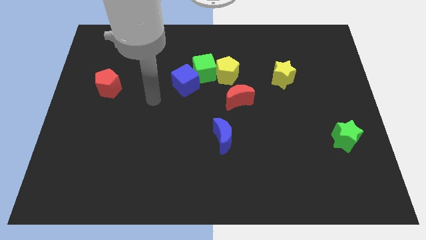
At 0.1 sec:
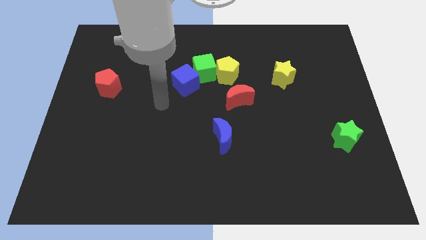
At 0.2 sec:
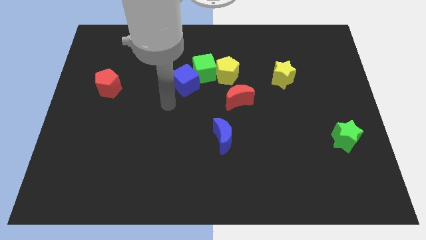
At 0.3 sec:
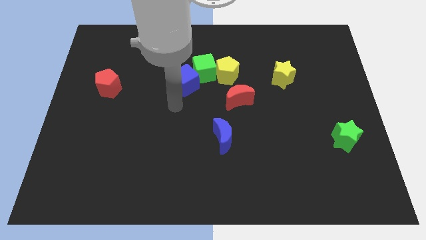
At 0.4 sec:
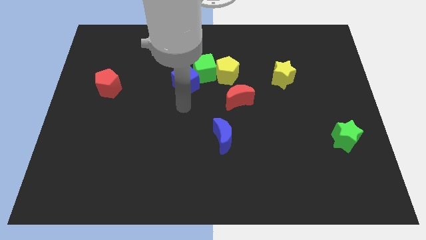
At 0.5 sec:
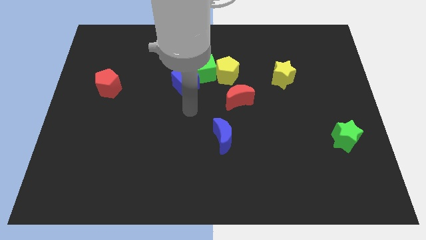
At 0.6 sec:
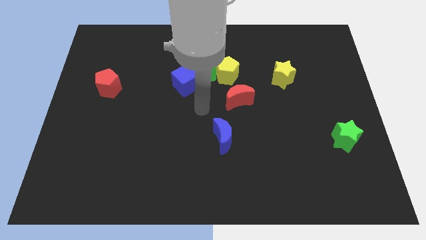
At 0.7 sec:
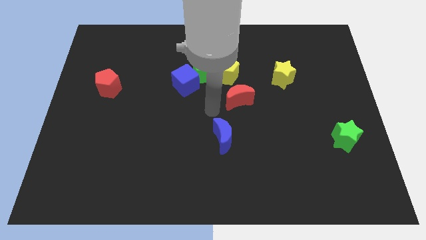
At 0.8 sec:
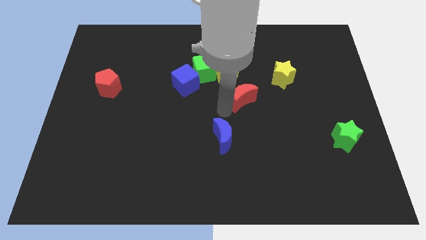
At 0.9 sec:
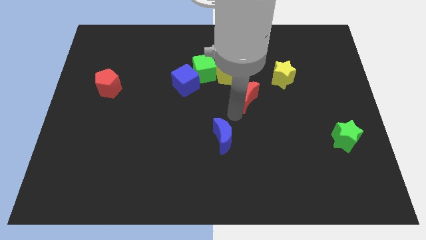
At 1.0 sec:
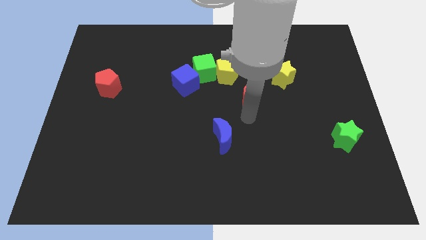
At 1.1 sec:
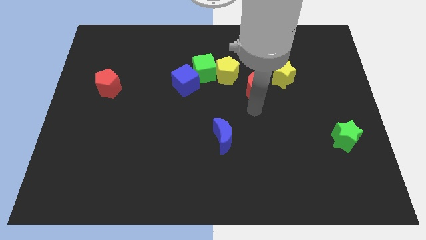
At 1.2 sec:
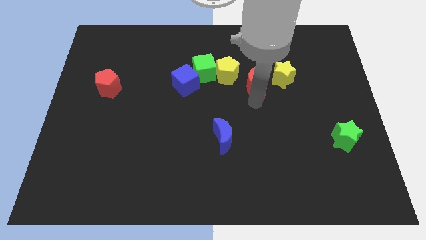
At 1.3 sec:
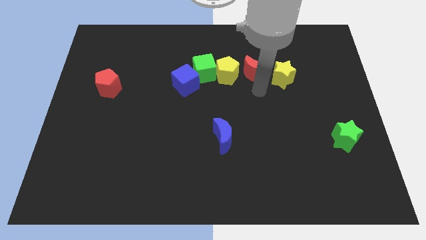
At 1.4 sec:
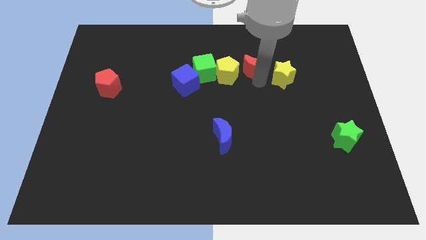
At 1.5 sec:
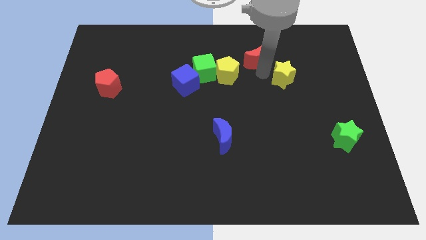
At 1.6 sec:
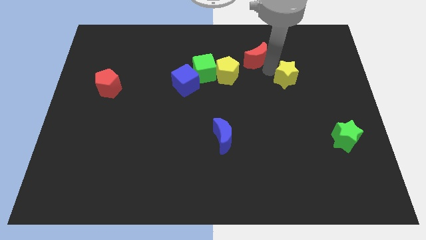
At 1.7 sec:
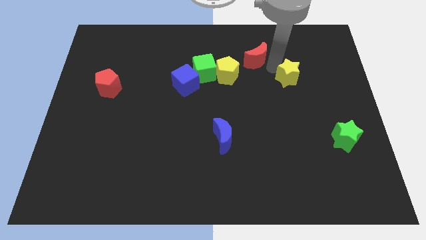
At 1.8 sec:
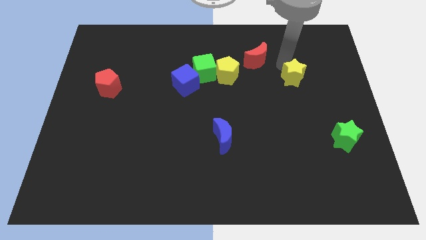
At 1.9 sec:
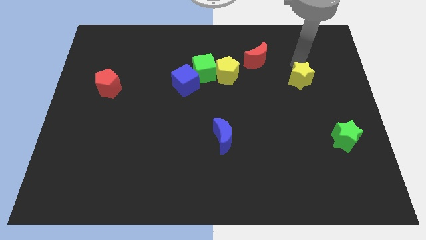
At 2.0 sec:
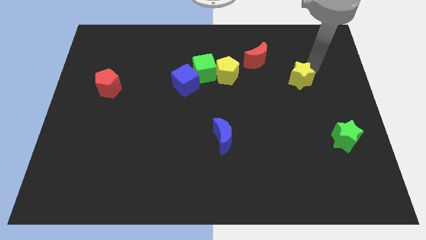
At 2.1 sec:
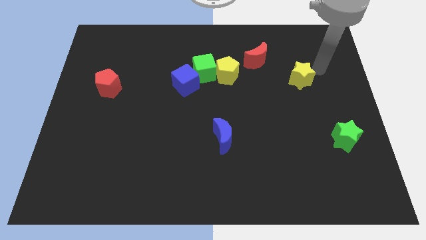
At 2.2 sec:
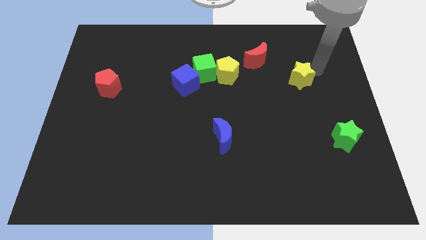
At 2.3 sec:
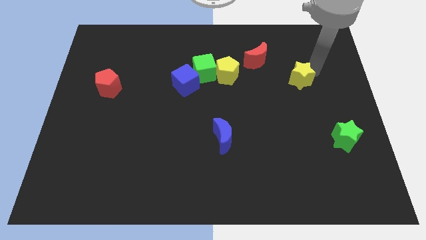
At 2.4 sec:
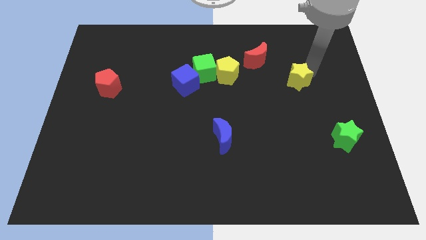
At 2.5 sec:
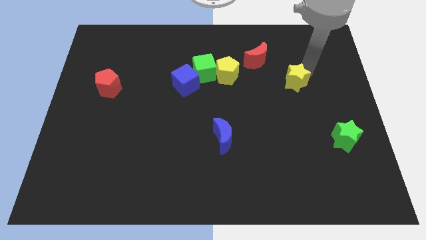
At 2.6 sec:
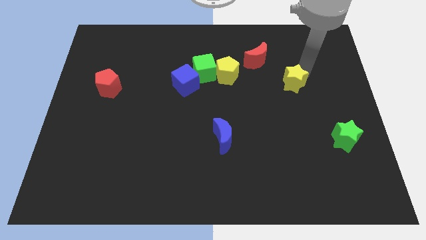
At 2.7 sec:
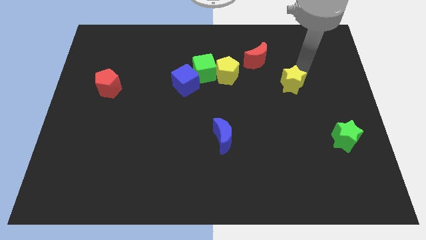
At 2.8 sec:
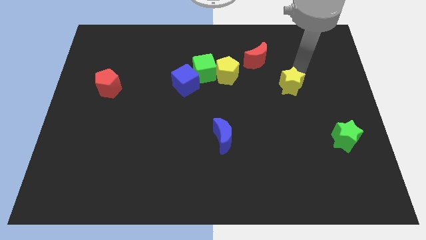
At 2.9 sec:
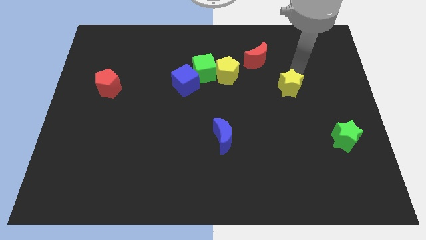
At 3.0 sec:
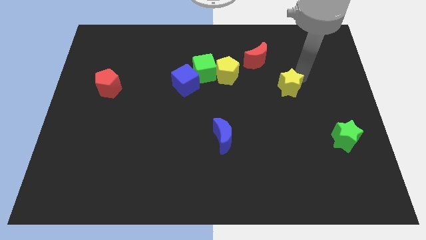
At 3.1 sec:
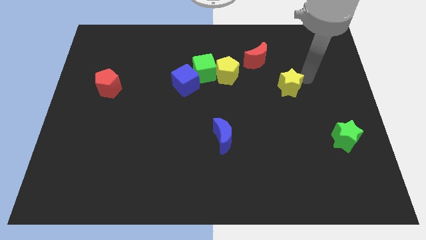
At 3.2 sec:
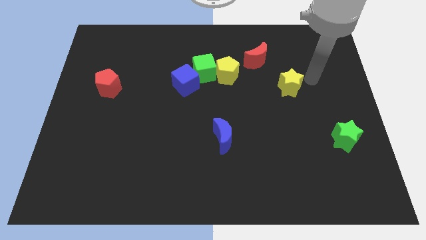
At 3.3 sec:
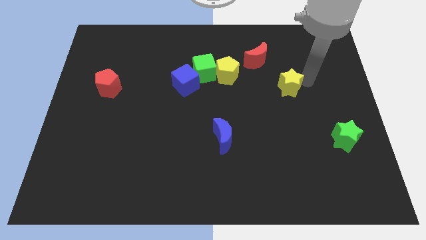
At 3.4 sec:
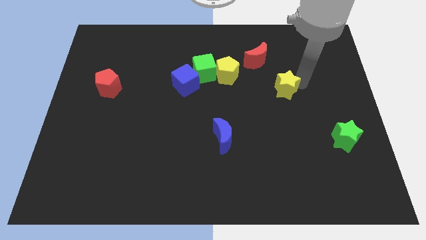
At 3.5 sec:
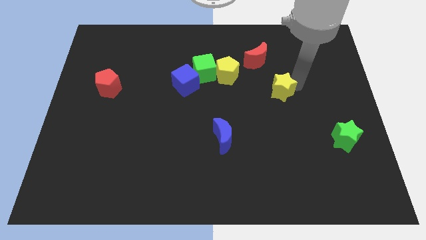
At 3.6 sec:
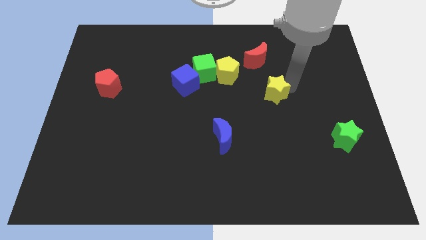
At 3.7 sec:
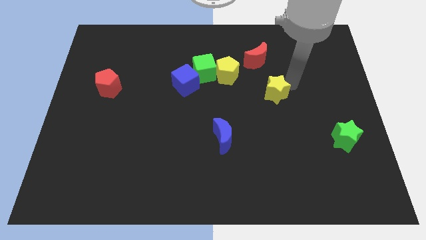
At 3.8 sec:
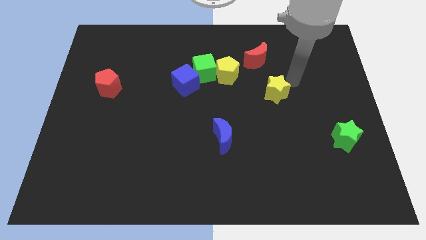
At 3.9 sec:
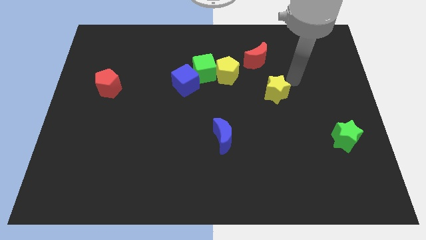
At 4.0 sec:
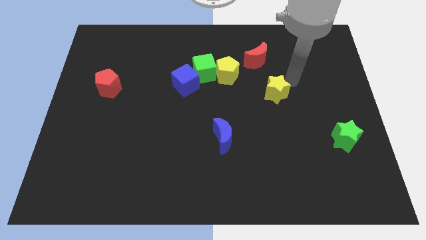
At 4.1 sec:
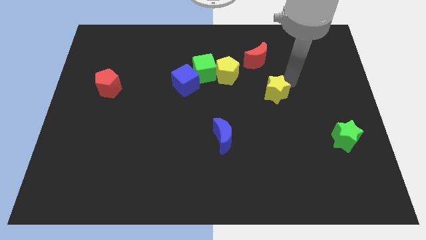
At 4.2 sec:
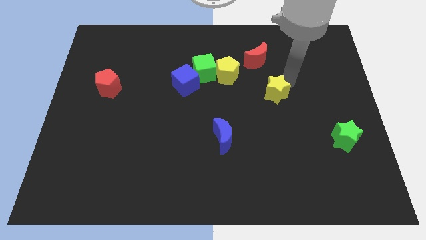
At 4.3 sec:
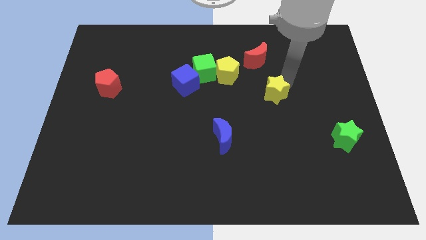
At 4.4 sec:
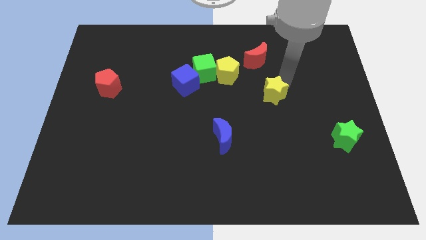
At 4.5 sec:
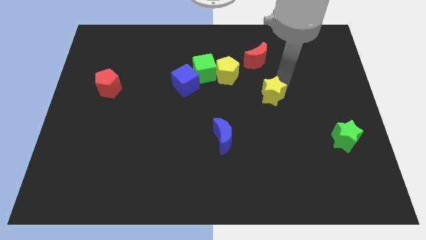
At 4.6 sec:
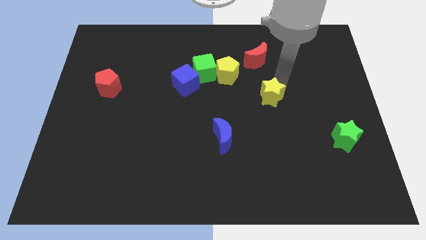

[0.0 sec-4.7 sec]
slide the yellow star slightly diagonally down and to the left

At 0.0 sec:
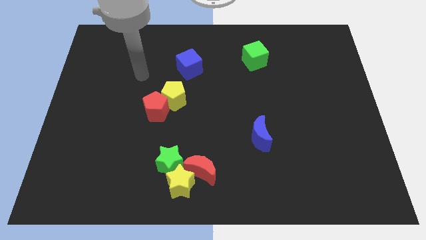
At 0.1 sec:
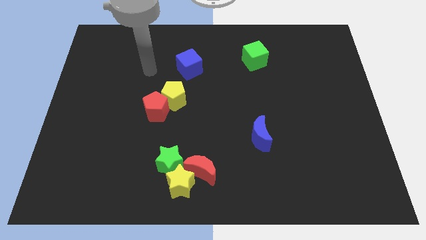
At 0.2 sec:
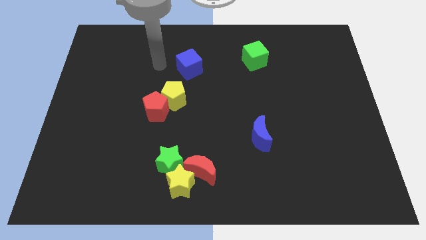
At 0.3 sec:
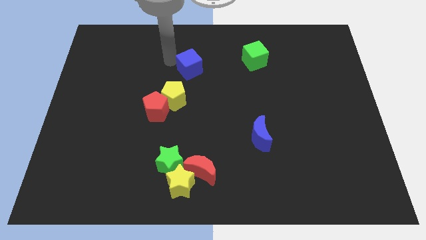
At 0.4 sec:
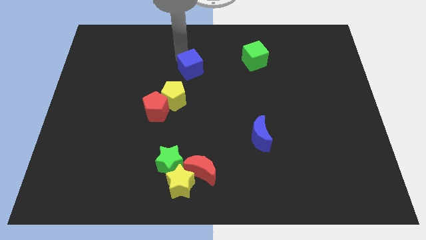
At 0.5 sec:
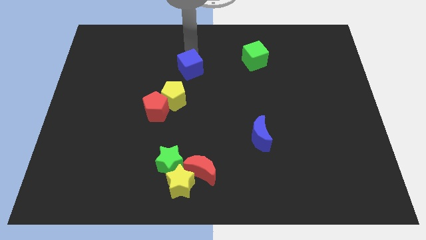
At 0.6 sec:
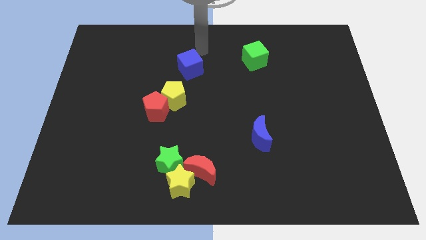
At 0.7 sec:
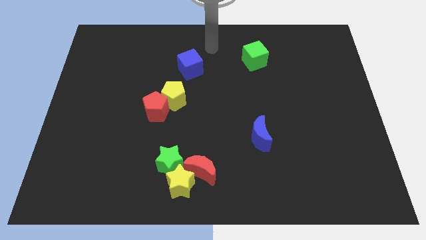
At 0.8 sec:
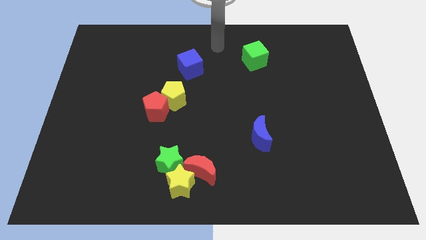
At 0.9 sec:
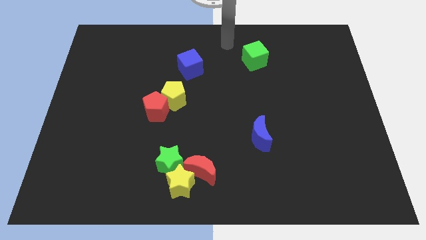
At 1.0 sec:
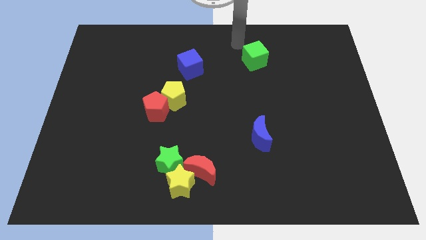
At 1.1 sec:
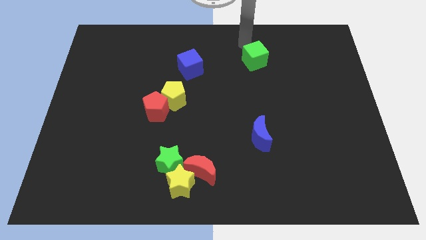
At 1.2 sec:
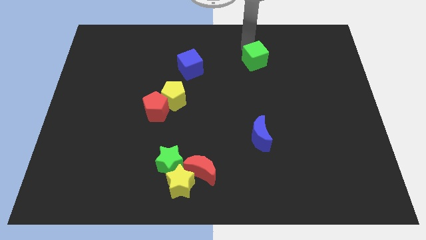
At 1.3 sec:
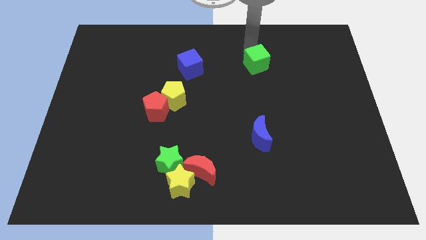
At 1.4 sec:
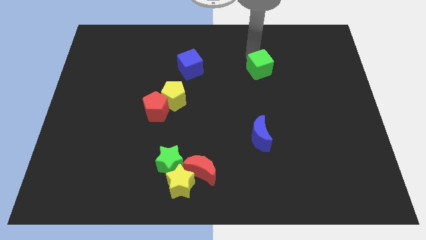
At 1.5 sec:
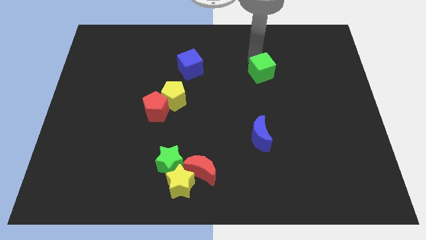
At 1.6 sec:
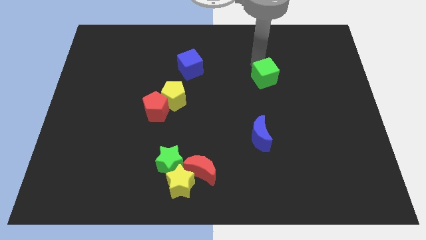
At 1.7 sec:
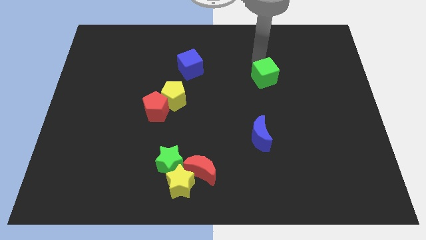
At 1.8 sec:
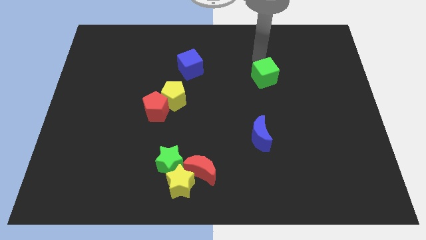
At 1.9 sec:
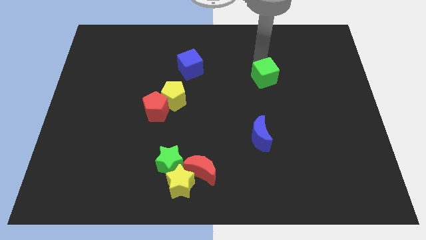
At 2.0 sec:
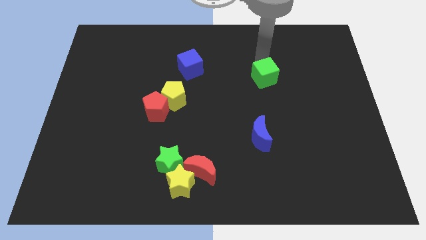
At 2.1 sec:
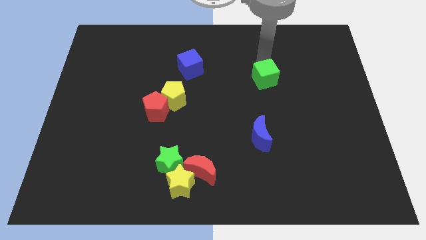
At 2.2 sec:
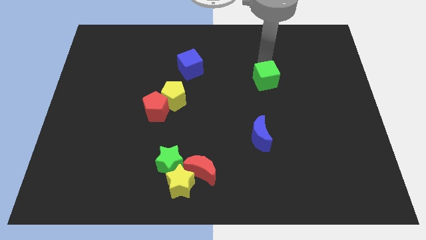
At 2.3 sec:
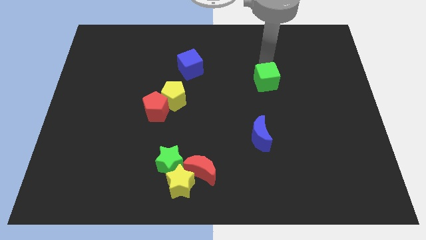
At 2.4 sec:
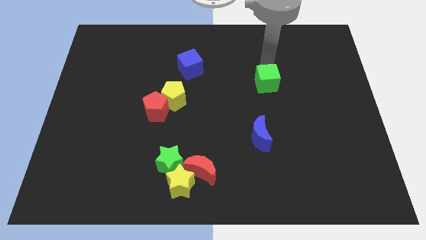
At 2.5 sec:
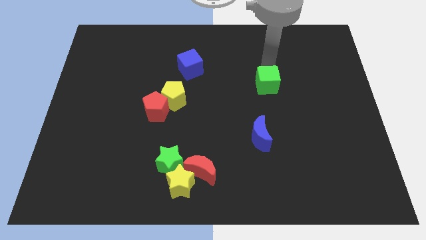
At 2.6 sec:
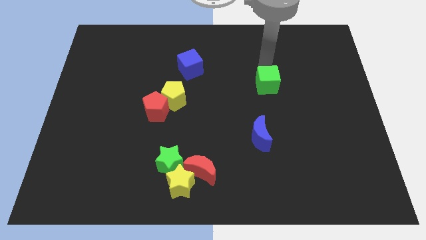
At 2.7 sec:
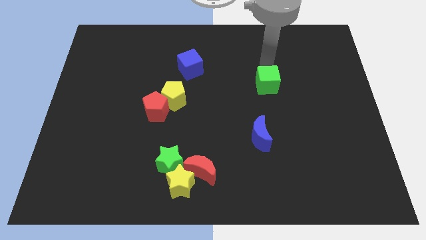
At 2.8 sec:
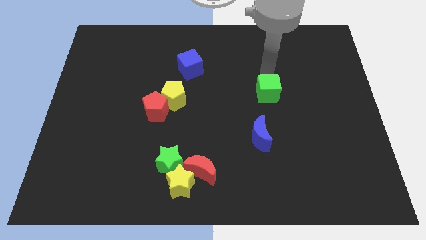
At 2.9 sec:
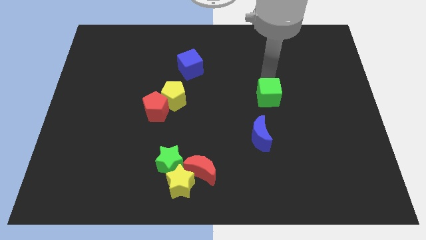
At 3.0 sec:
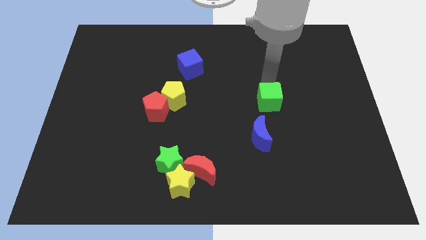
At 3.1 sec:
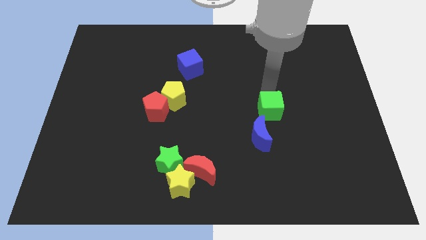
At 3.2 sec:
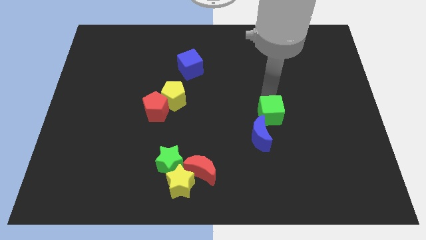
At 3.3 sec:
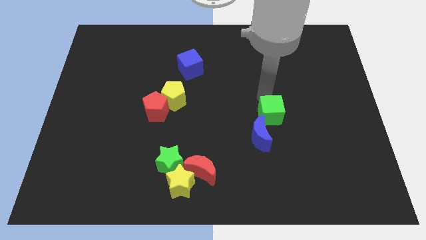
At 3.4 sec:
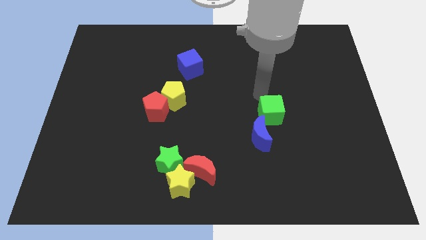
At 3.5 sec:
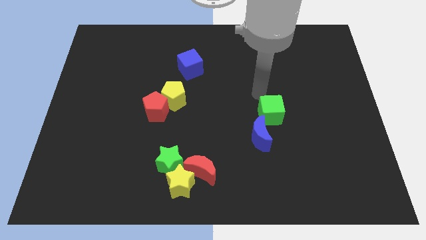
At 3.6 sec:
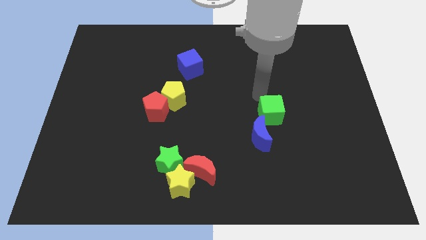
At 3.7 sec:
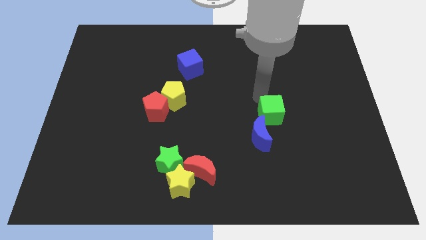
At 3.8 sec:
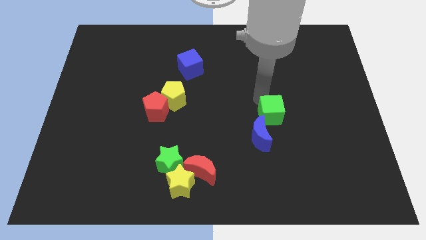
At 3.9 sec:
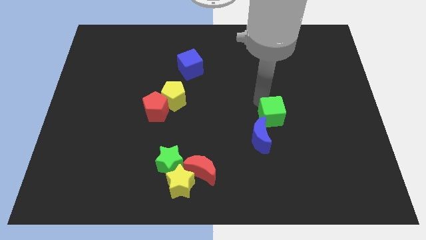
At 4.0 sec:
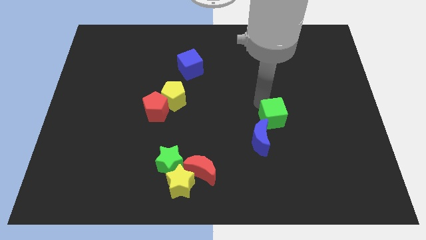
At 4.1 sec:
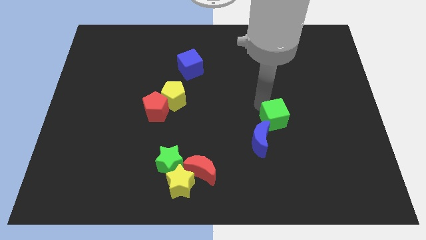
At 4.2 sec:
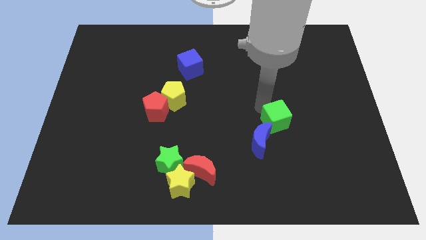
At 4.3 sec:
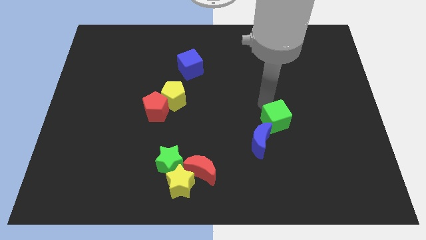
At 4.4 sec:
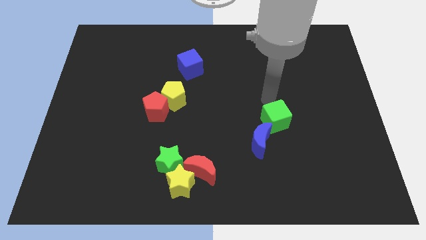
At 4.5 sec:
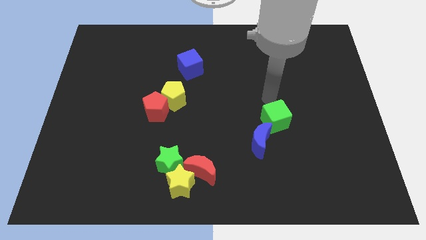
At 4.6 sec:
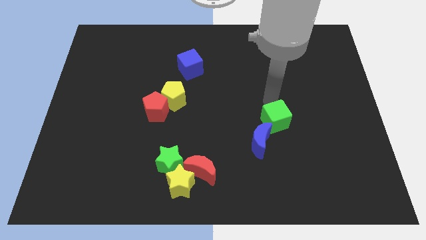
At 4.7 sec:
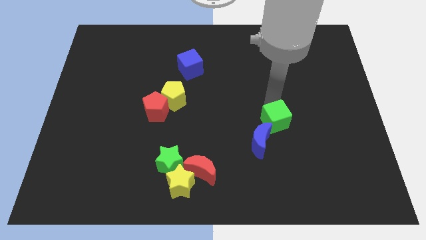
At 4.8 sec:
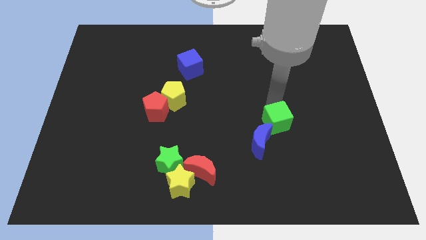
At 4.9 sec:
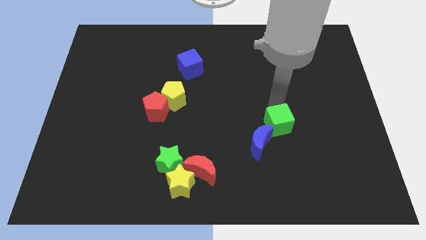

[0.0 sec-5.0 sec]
push the green cube down
